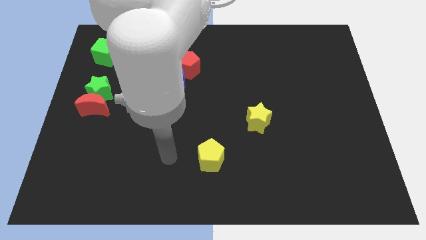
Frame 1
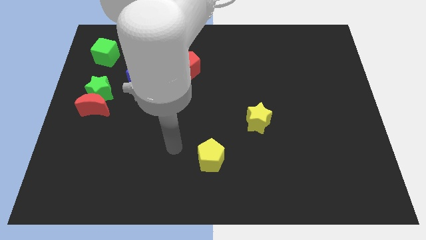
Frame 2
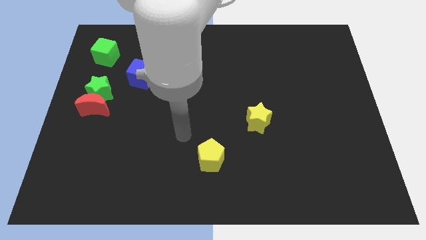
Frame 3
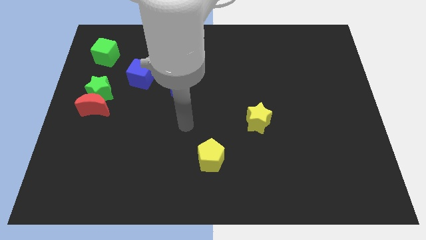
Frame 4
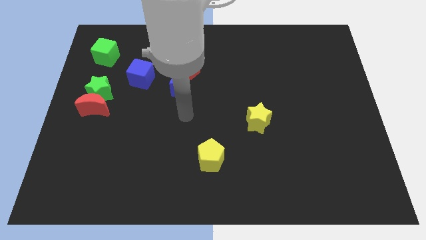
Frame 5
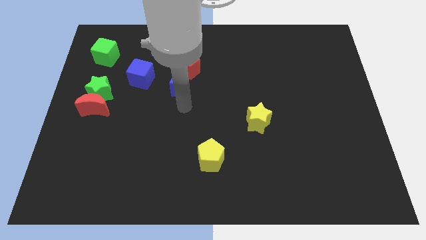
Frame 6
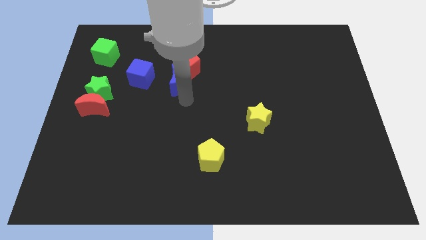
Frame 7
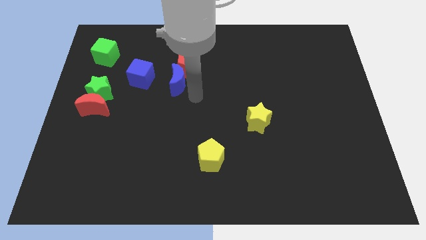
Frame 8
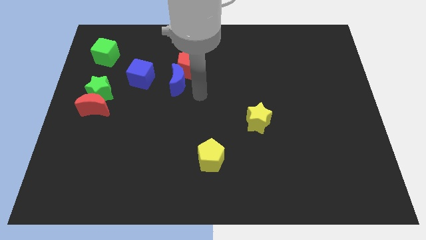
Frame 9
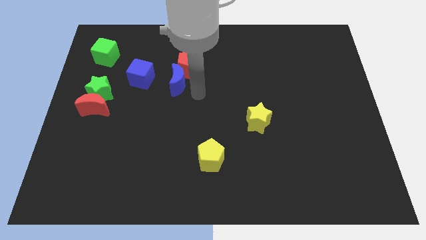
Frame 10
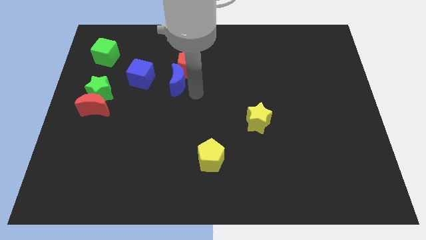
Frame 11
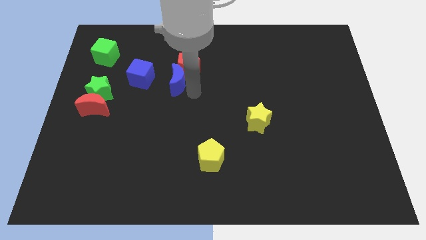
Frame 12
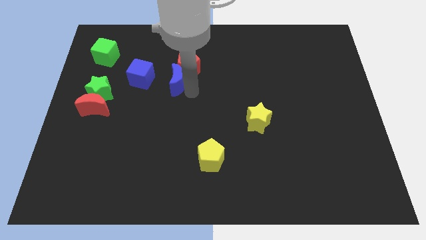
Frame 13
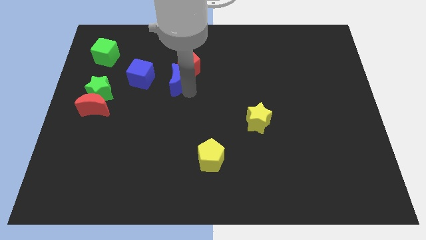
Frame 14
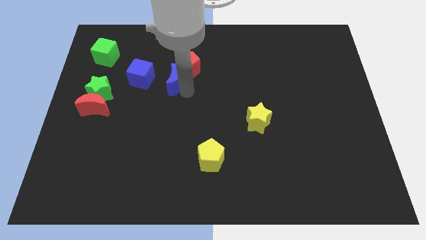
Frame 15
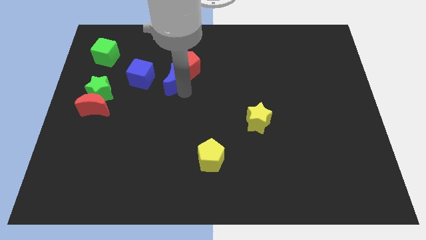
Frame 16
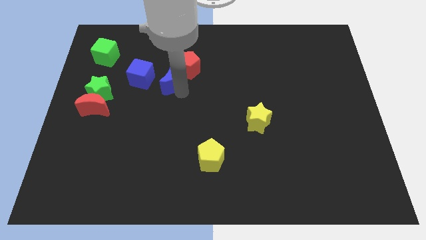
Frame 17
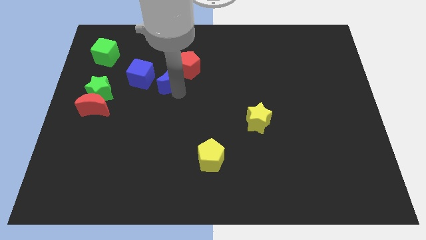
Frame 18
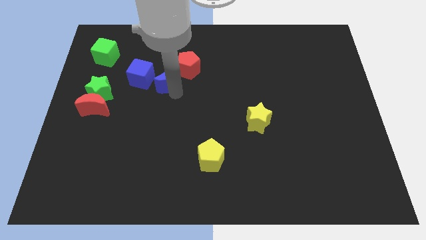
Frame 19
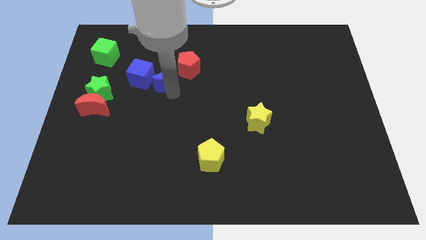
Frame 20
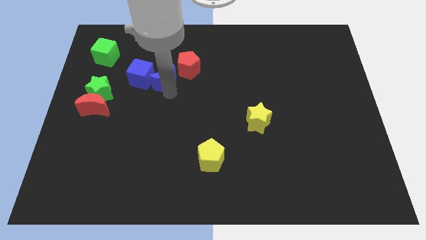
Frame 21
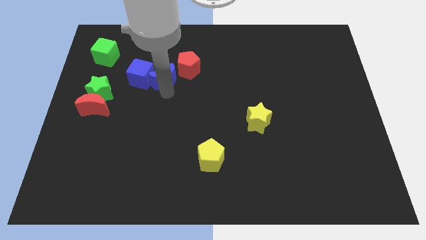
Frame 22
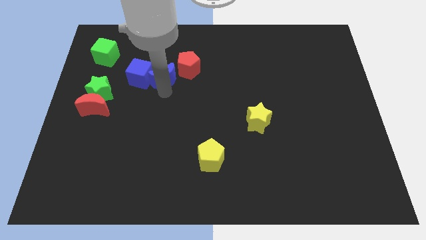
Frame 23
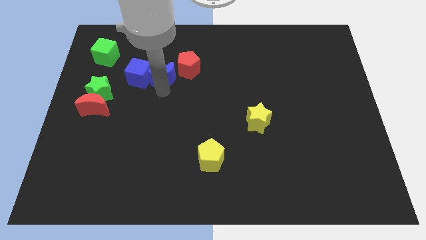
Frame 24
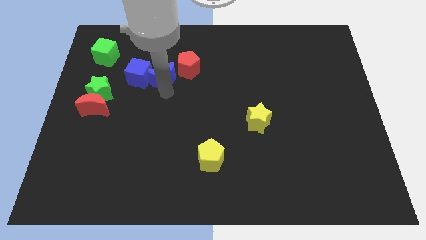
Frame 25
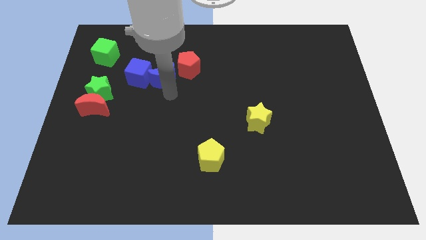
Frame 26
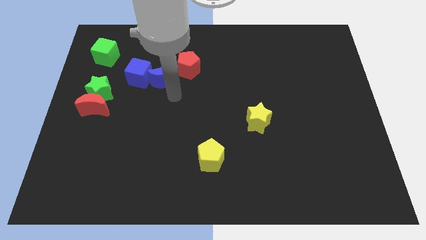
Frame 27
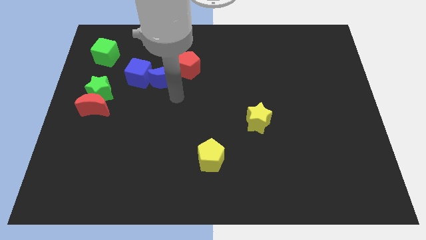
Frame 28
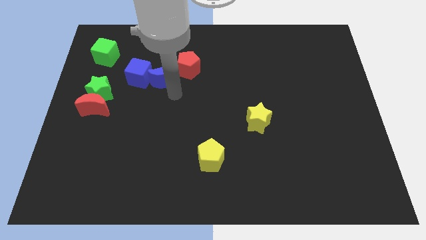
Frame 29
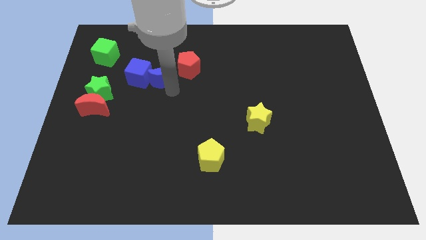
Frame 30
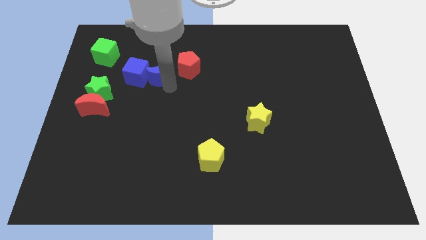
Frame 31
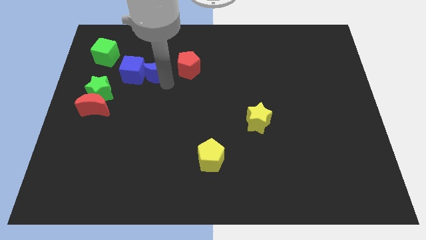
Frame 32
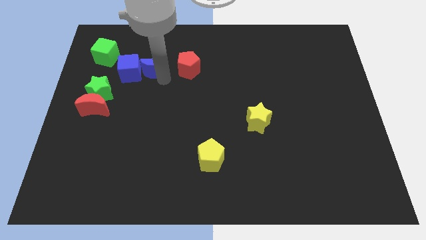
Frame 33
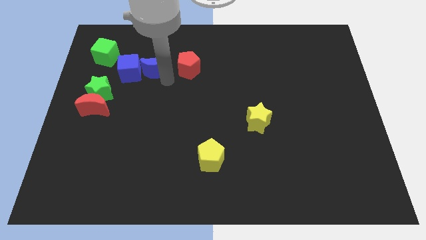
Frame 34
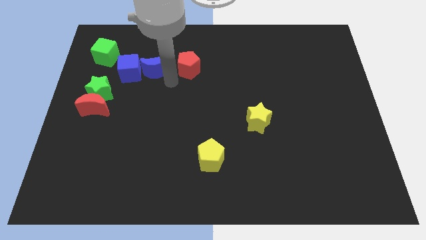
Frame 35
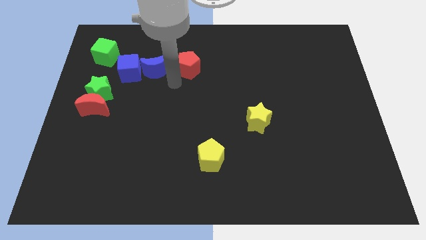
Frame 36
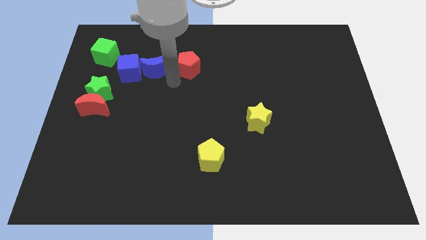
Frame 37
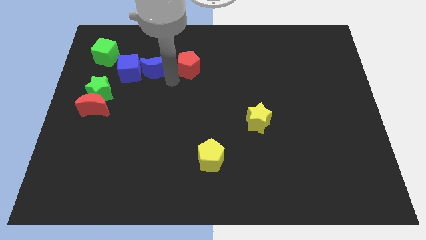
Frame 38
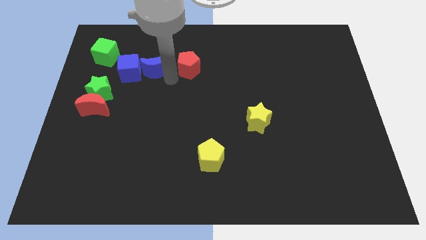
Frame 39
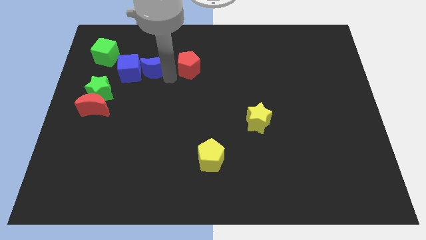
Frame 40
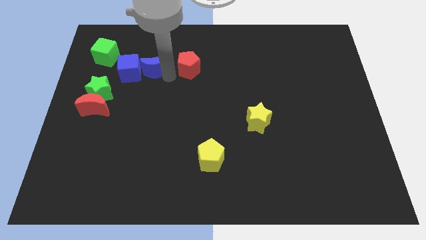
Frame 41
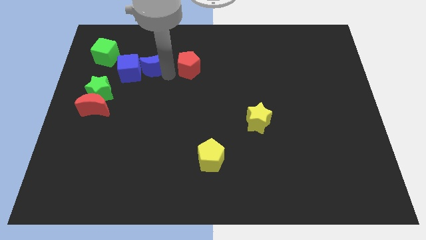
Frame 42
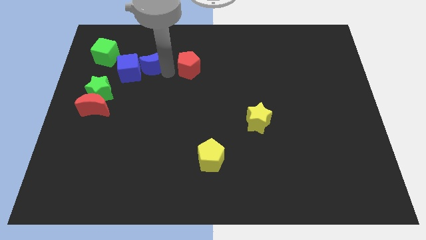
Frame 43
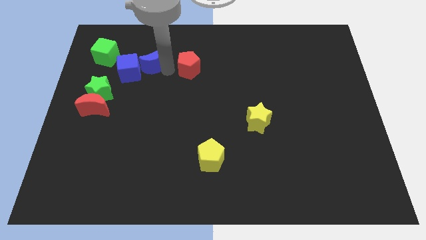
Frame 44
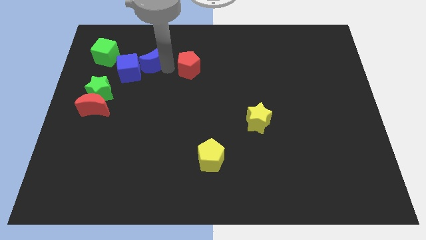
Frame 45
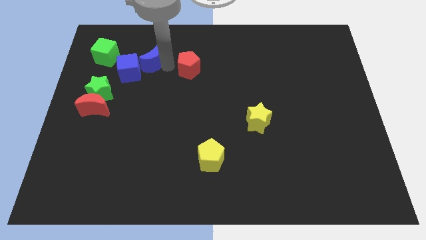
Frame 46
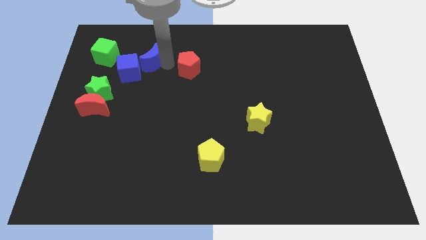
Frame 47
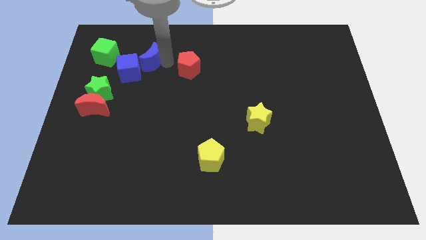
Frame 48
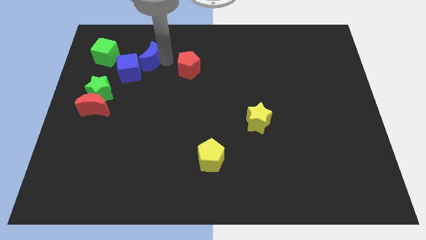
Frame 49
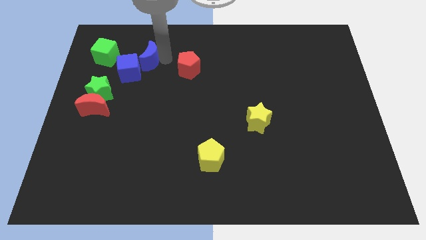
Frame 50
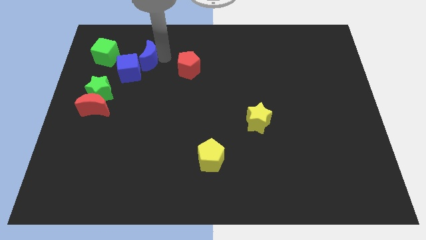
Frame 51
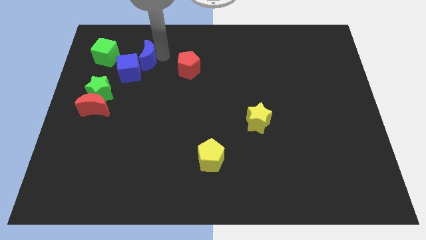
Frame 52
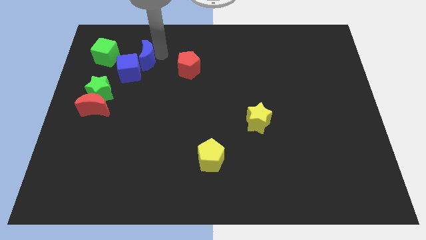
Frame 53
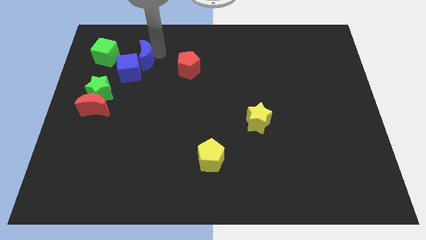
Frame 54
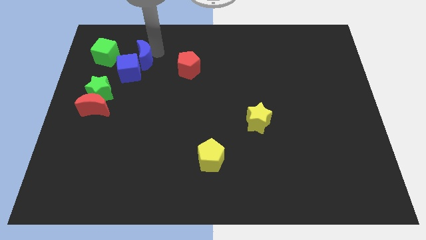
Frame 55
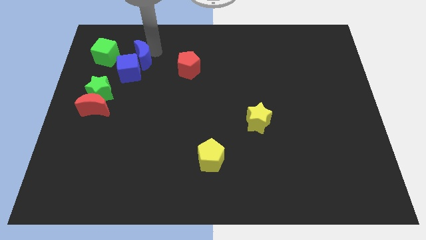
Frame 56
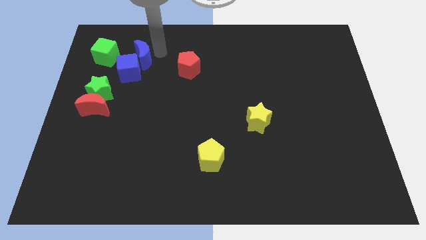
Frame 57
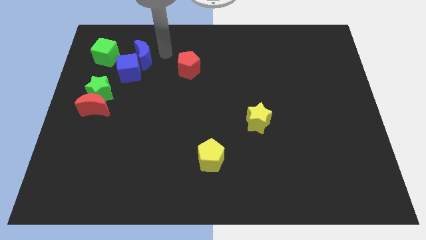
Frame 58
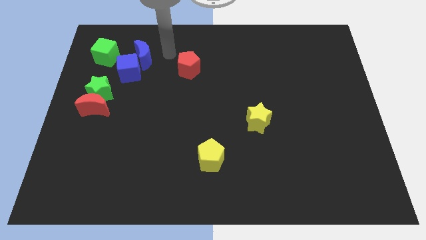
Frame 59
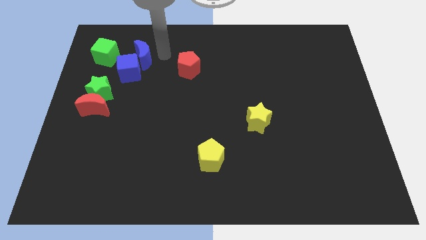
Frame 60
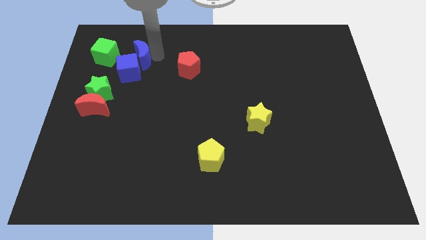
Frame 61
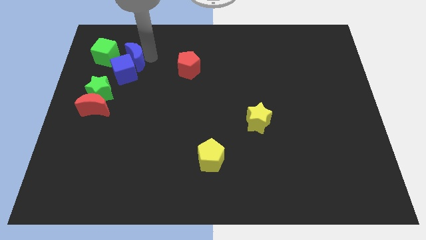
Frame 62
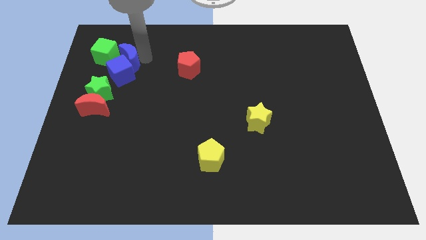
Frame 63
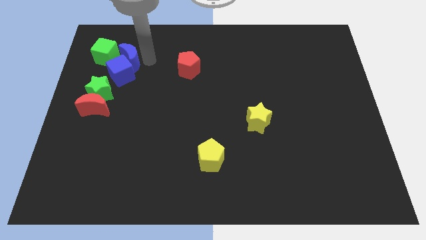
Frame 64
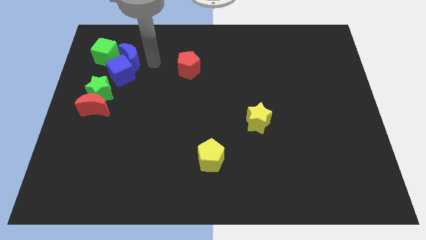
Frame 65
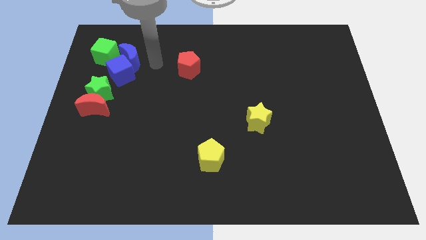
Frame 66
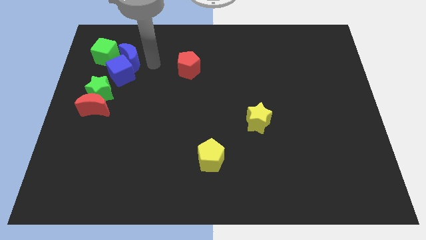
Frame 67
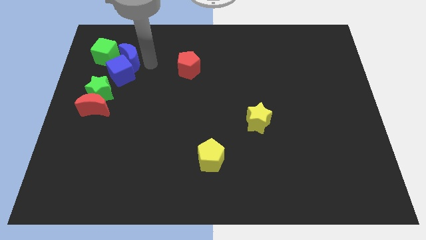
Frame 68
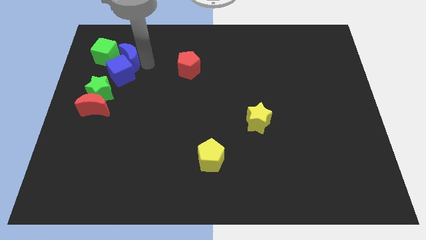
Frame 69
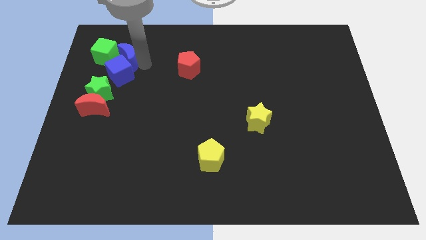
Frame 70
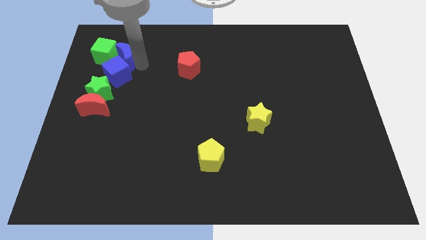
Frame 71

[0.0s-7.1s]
slide the blue moon towards the green cube
